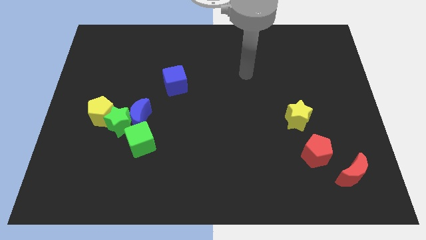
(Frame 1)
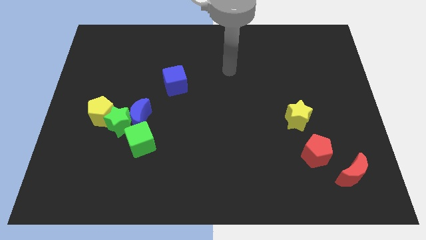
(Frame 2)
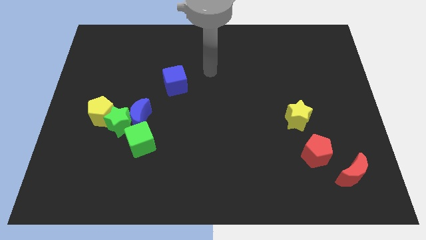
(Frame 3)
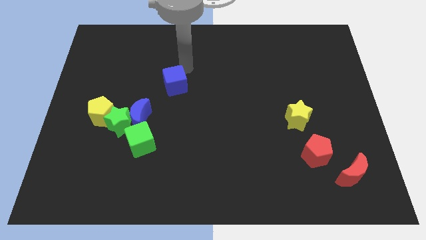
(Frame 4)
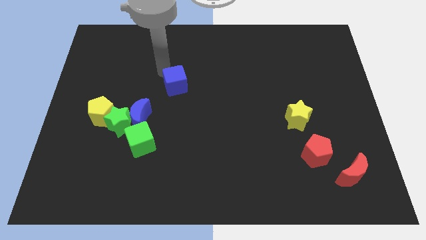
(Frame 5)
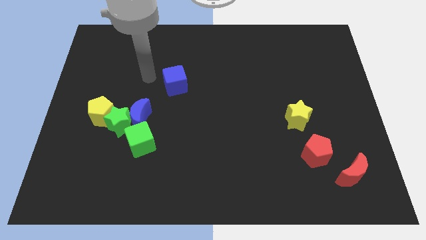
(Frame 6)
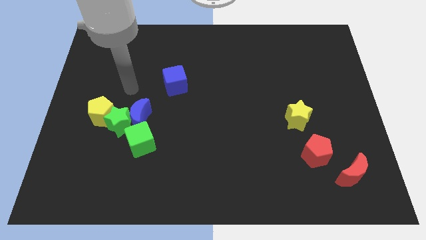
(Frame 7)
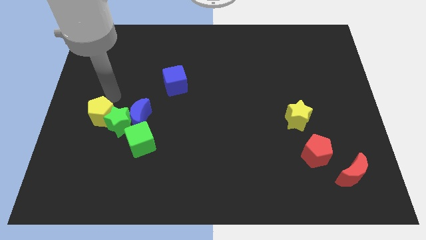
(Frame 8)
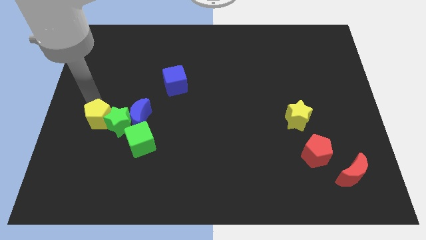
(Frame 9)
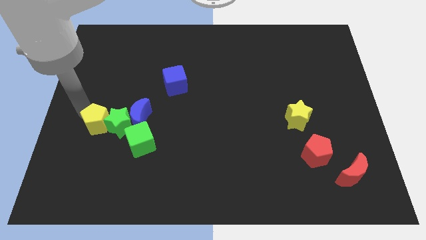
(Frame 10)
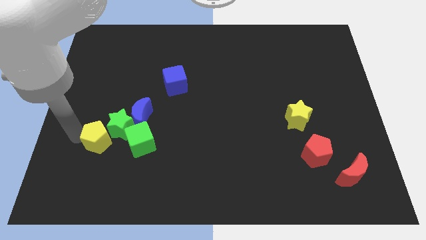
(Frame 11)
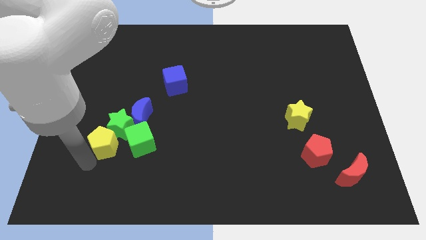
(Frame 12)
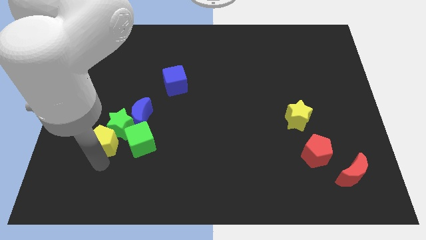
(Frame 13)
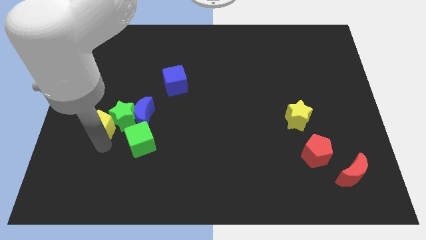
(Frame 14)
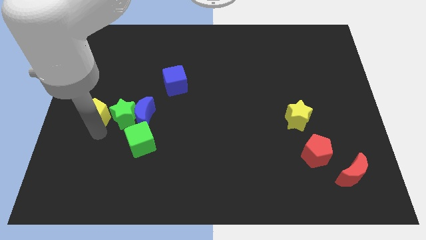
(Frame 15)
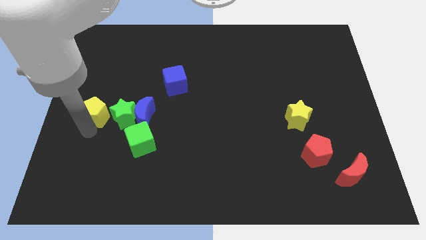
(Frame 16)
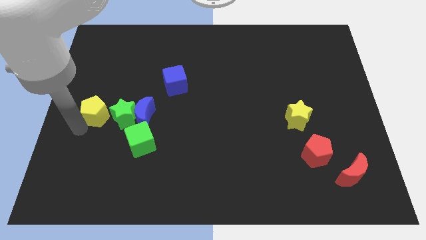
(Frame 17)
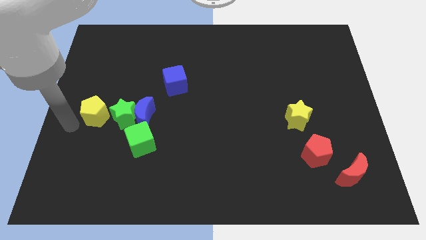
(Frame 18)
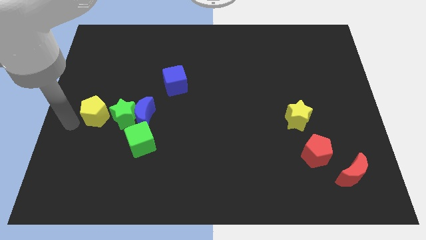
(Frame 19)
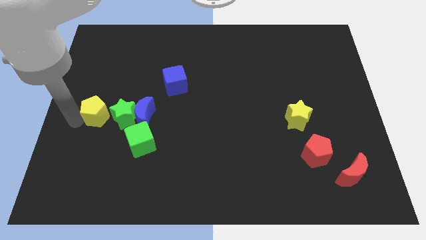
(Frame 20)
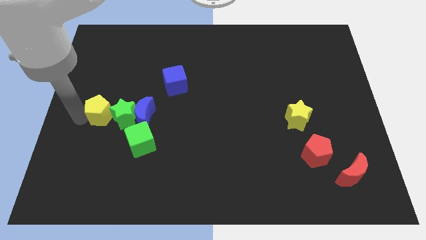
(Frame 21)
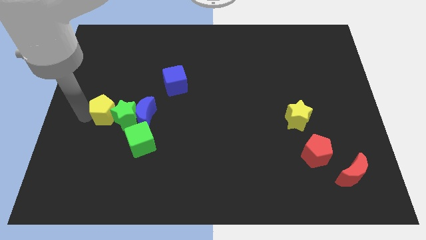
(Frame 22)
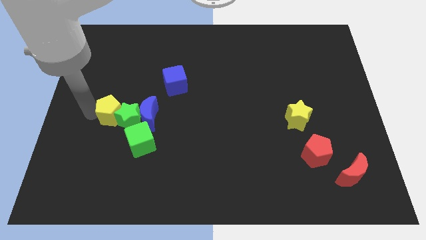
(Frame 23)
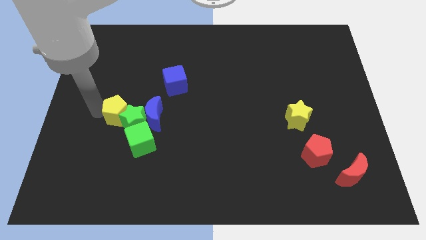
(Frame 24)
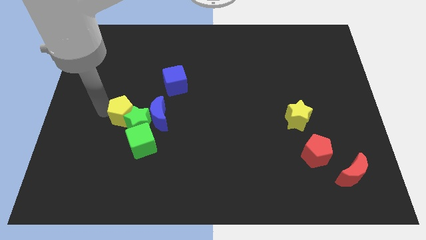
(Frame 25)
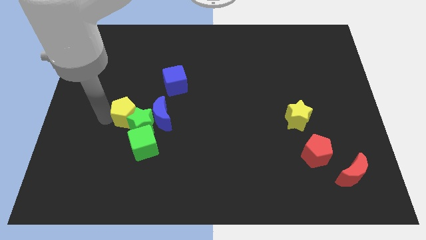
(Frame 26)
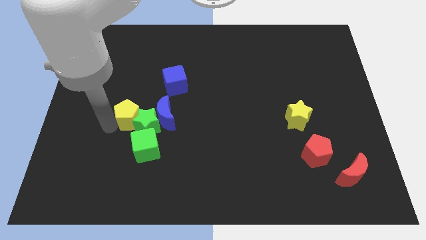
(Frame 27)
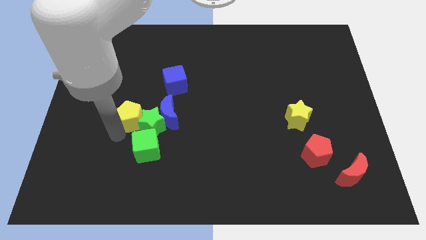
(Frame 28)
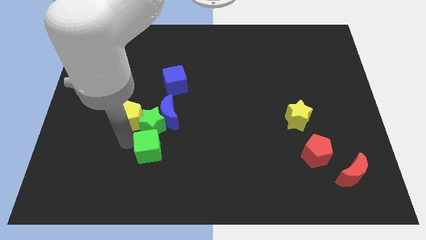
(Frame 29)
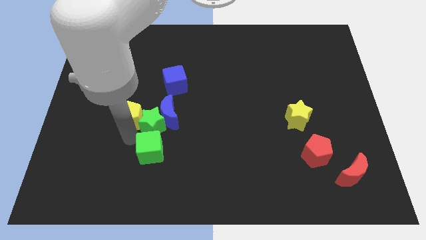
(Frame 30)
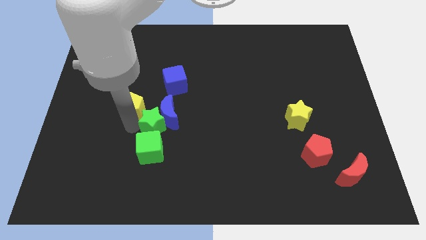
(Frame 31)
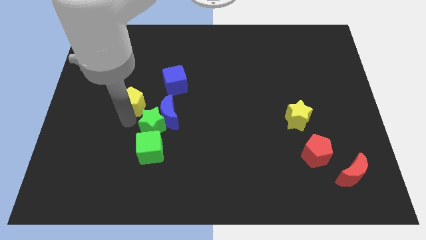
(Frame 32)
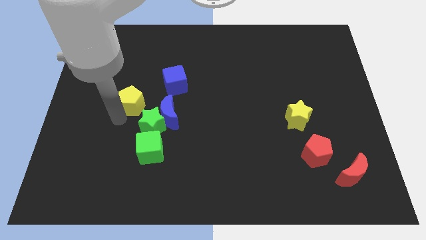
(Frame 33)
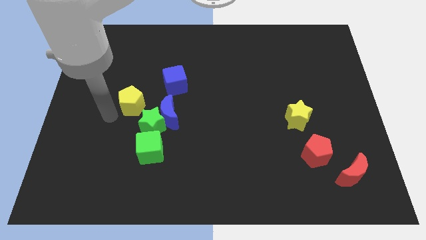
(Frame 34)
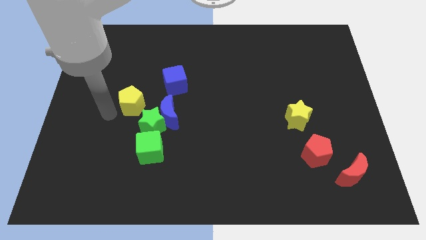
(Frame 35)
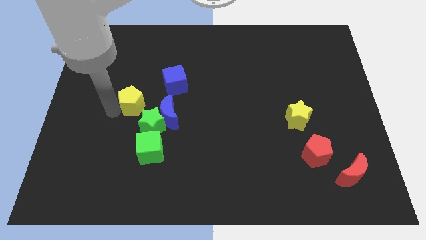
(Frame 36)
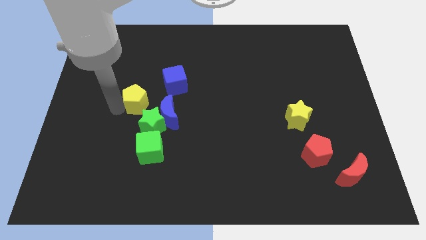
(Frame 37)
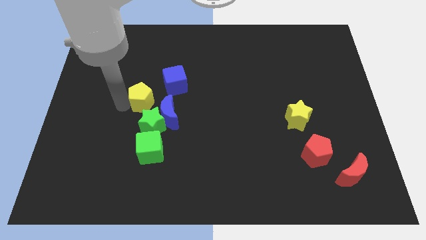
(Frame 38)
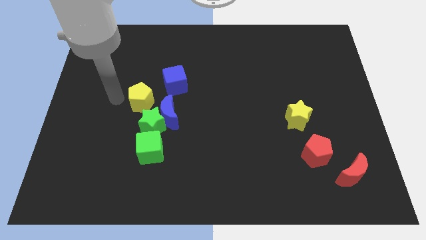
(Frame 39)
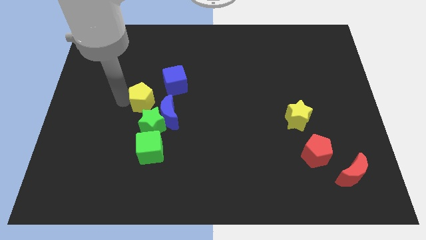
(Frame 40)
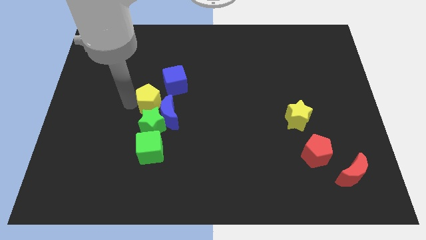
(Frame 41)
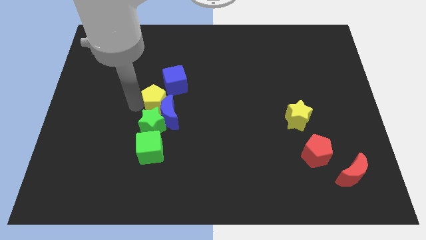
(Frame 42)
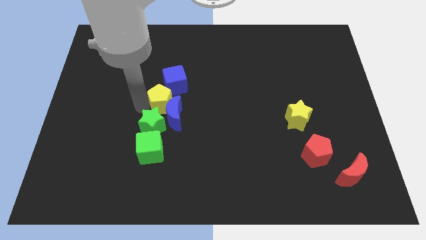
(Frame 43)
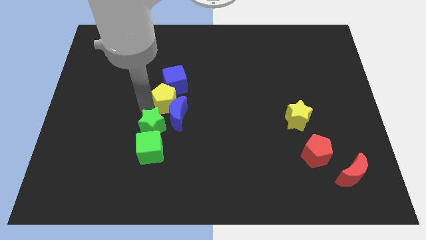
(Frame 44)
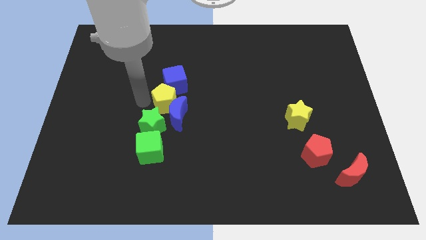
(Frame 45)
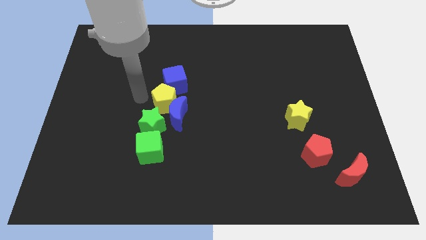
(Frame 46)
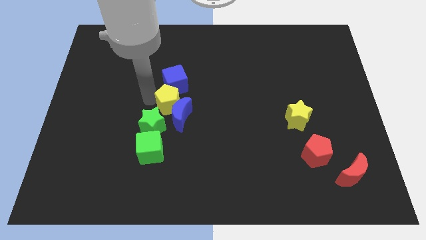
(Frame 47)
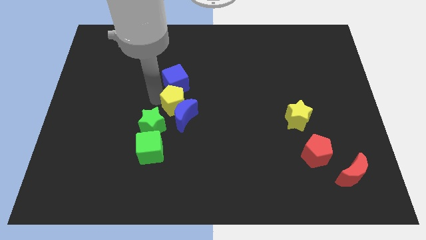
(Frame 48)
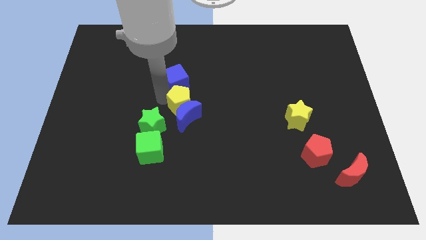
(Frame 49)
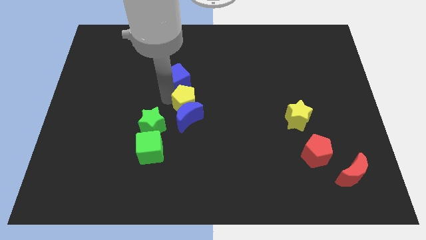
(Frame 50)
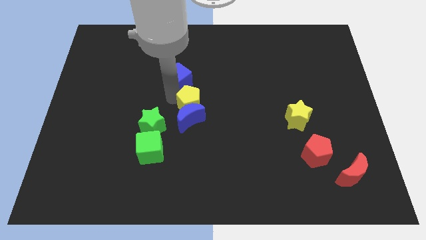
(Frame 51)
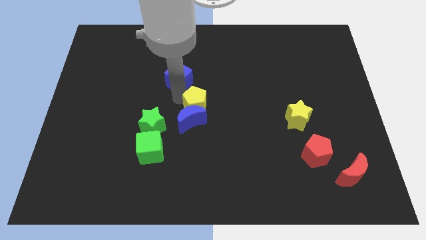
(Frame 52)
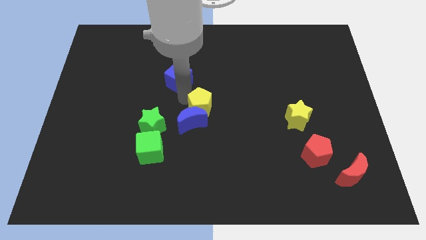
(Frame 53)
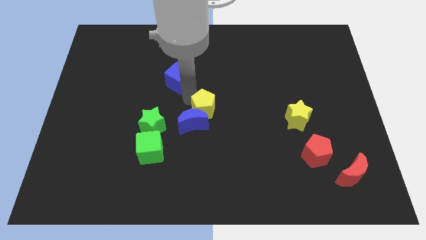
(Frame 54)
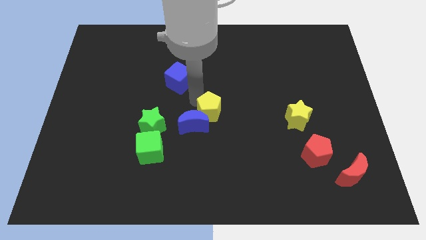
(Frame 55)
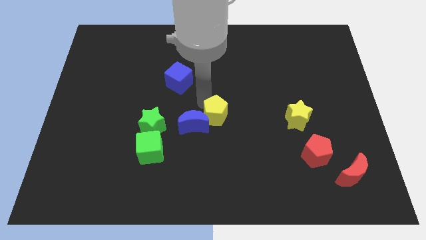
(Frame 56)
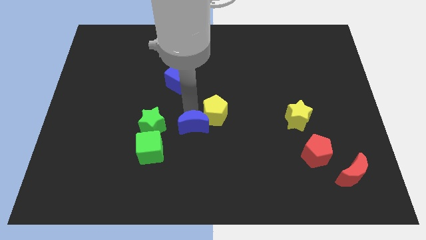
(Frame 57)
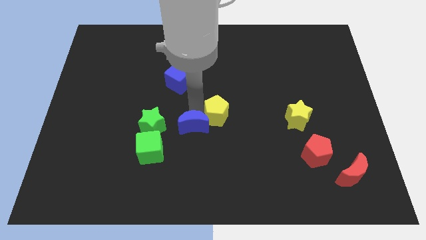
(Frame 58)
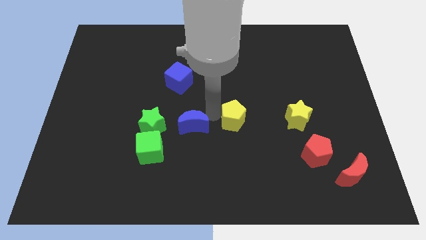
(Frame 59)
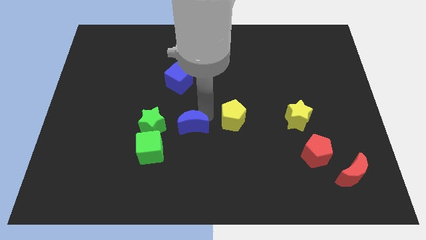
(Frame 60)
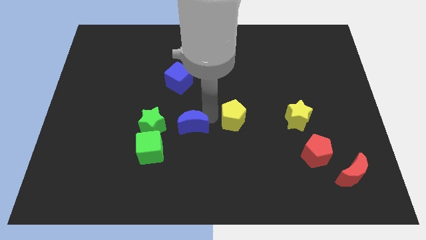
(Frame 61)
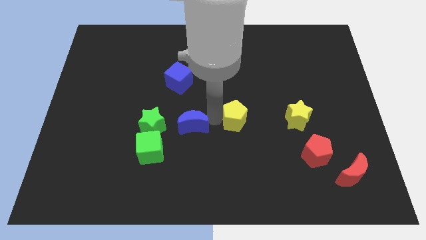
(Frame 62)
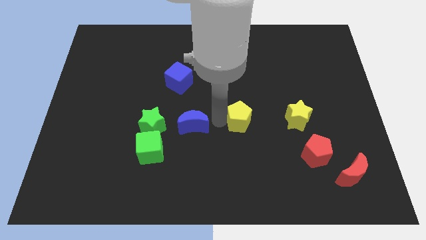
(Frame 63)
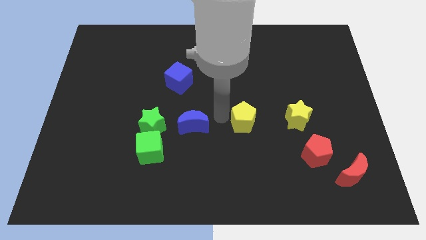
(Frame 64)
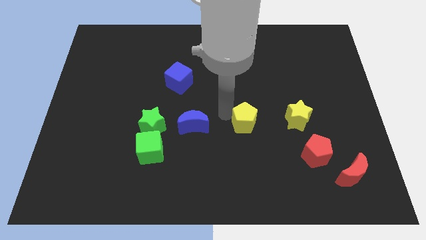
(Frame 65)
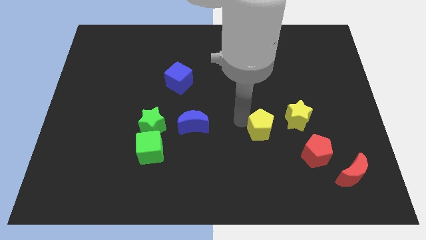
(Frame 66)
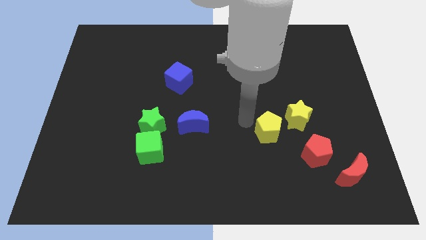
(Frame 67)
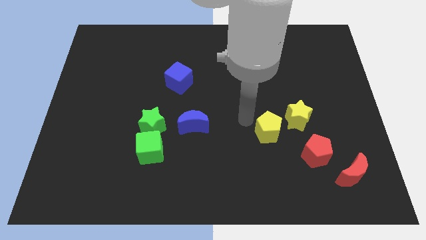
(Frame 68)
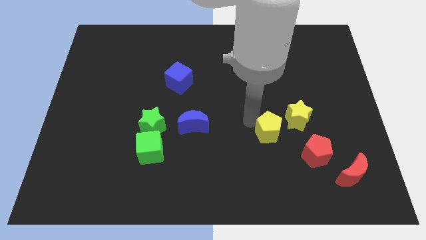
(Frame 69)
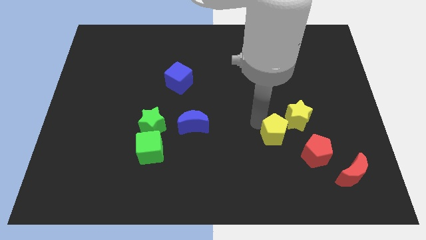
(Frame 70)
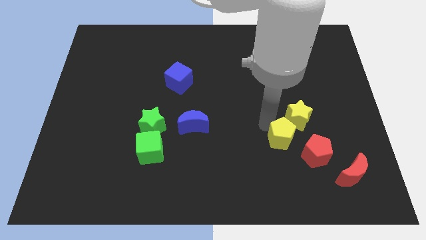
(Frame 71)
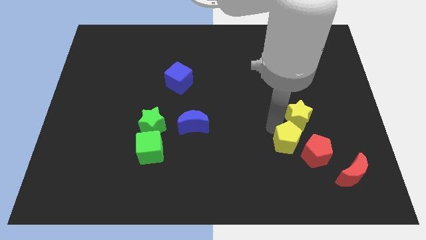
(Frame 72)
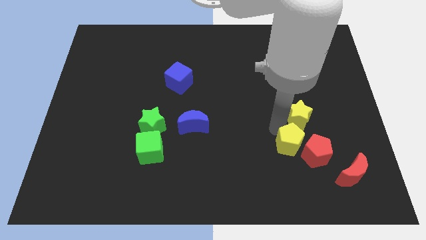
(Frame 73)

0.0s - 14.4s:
push the yellow pentagon towards the red pentagon

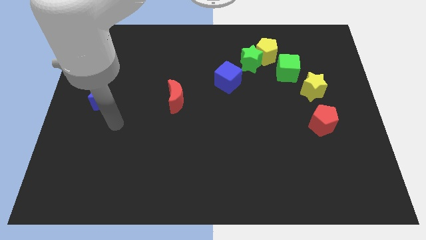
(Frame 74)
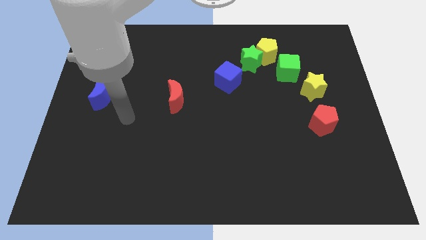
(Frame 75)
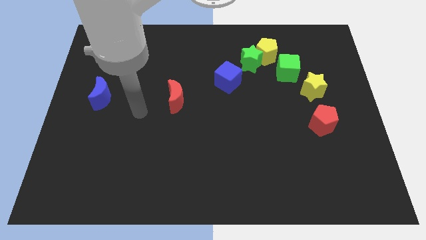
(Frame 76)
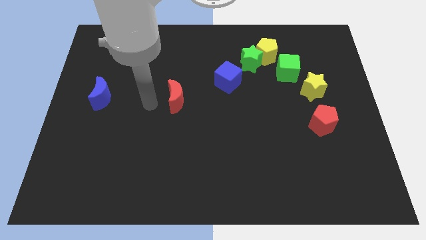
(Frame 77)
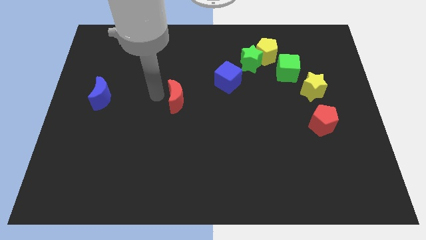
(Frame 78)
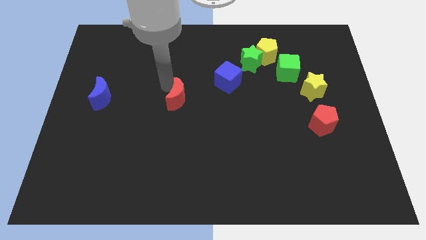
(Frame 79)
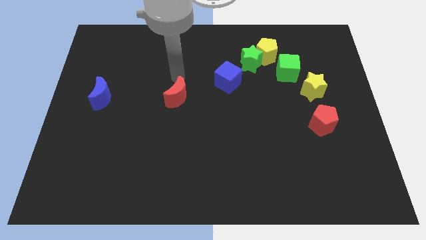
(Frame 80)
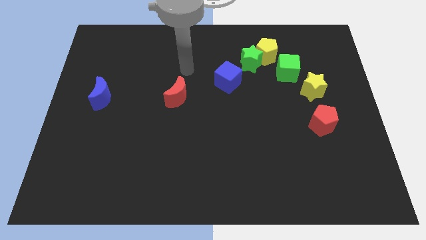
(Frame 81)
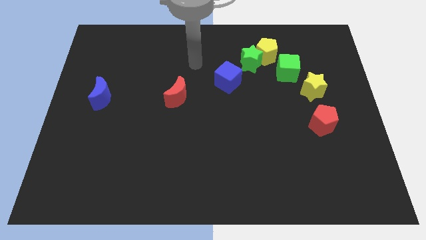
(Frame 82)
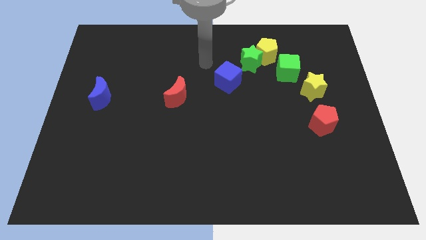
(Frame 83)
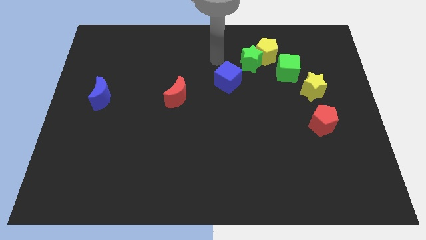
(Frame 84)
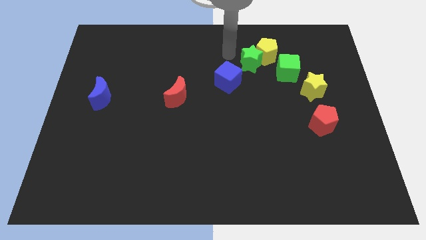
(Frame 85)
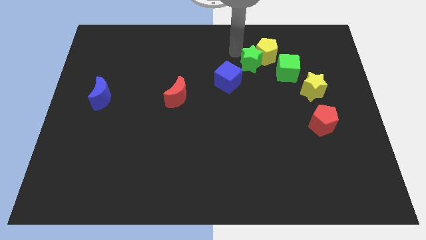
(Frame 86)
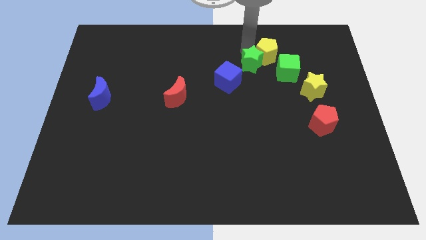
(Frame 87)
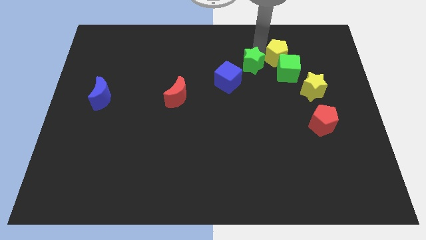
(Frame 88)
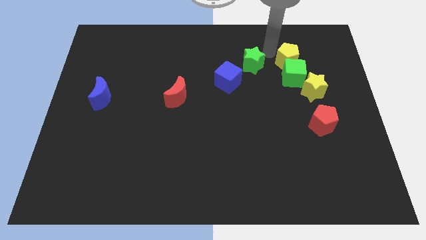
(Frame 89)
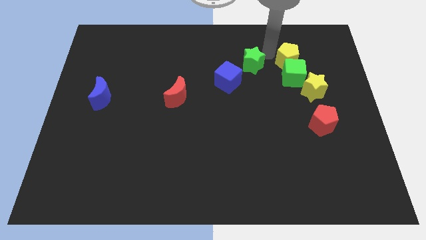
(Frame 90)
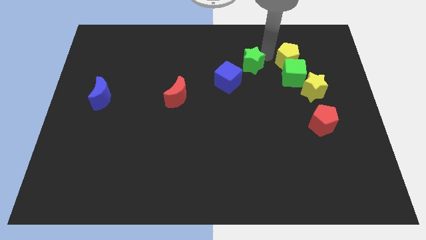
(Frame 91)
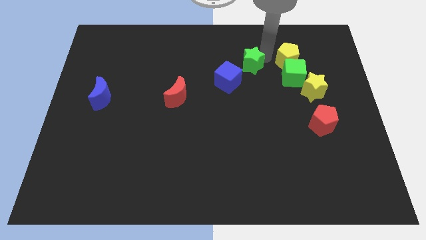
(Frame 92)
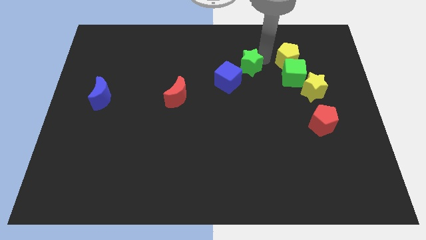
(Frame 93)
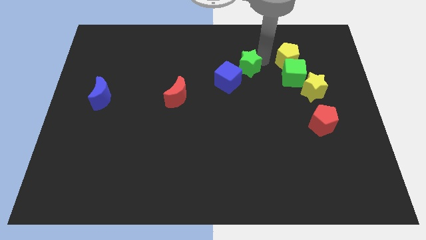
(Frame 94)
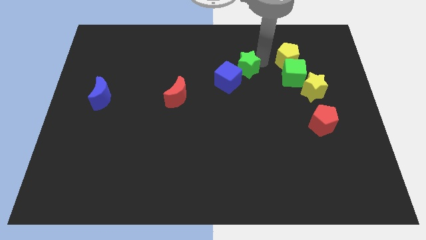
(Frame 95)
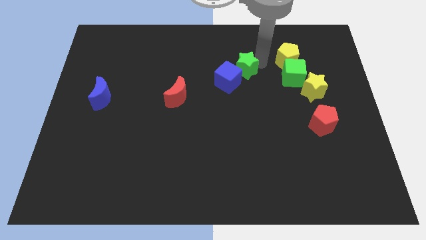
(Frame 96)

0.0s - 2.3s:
push the green star next to the blue cube
